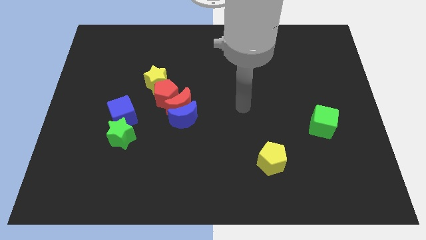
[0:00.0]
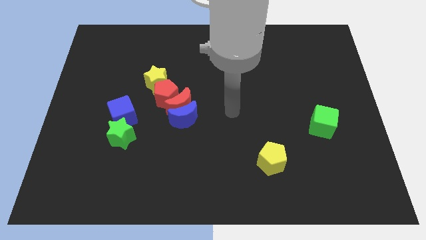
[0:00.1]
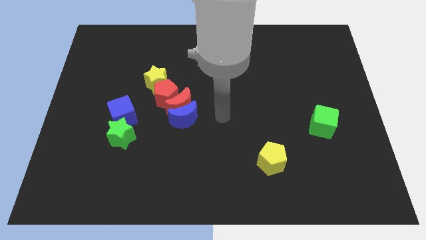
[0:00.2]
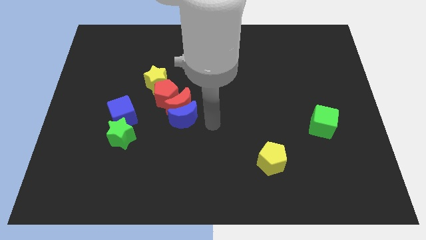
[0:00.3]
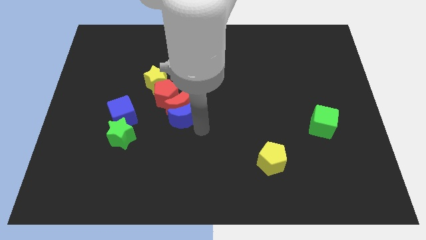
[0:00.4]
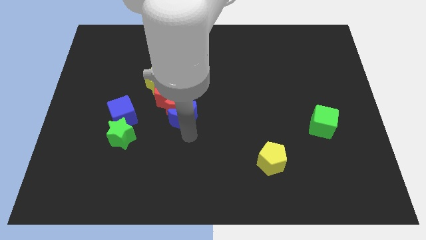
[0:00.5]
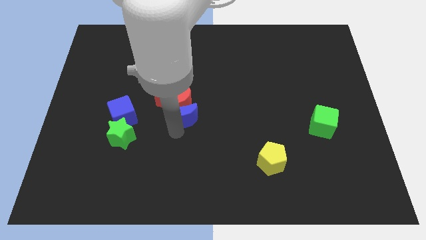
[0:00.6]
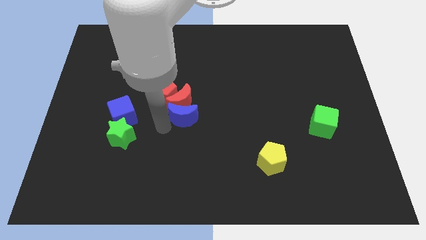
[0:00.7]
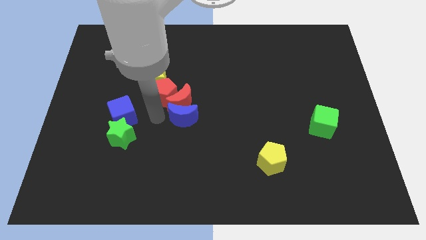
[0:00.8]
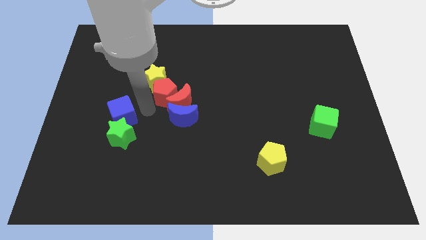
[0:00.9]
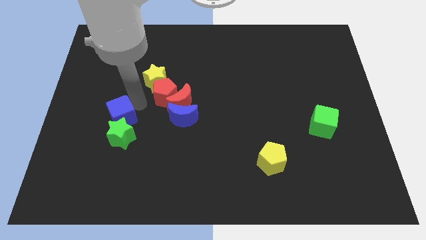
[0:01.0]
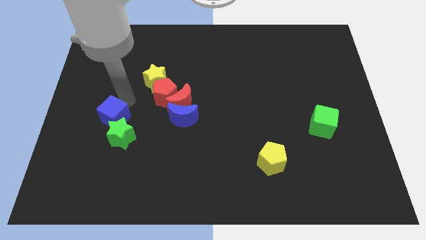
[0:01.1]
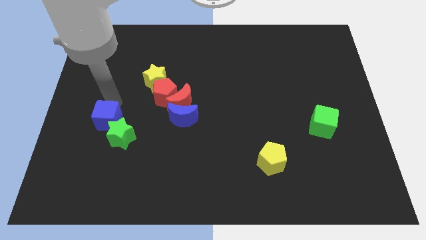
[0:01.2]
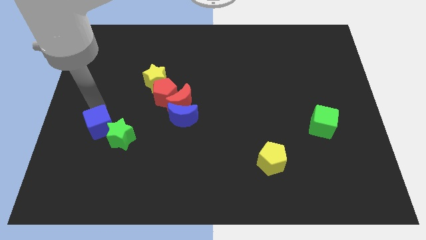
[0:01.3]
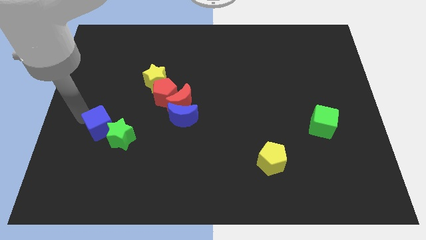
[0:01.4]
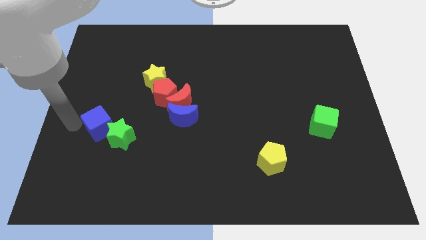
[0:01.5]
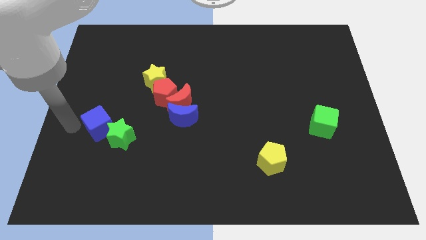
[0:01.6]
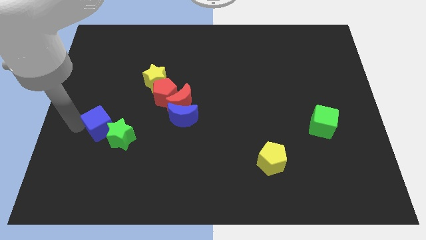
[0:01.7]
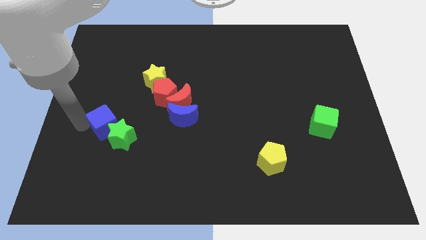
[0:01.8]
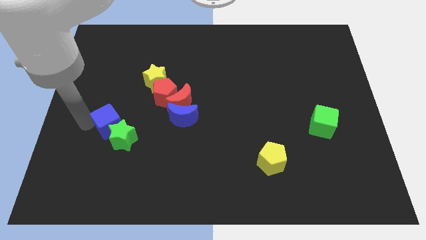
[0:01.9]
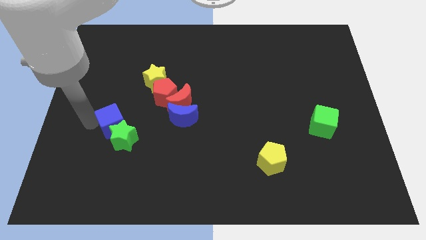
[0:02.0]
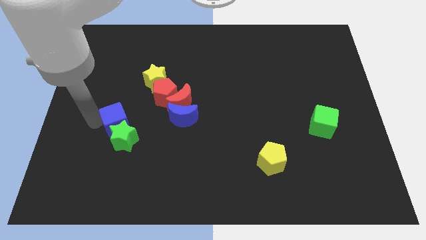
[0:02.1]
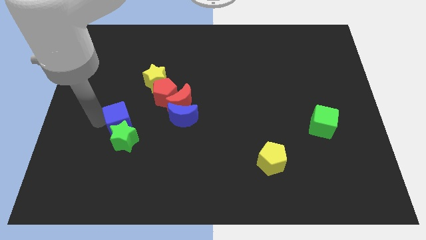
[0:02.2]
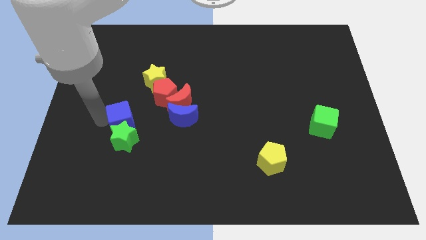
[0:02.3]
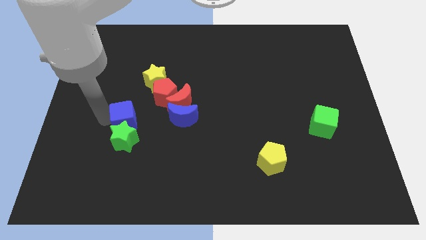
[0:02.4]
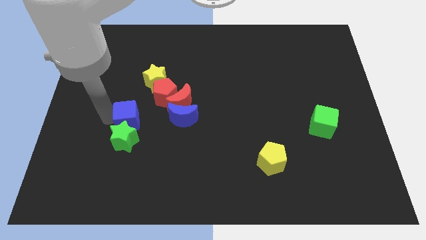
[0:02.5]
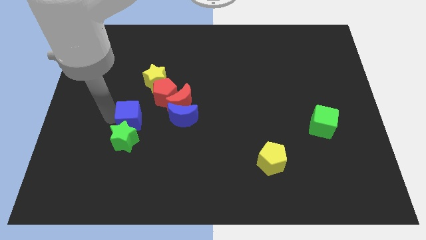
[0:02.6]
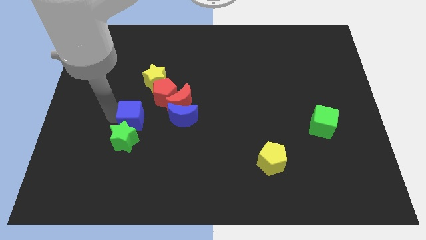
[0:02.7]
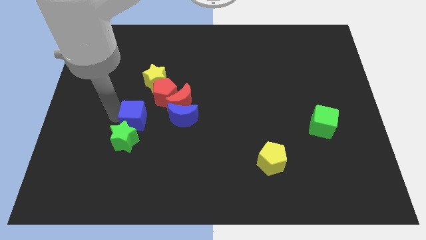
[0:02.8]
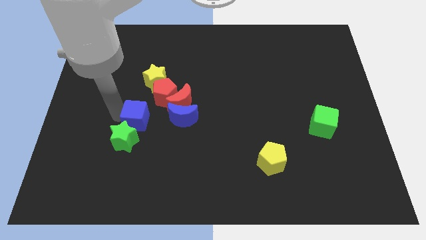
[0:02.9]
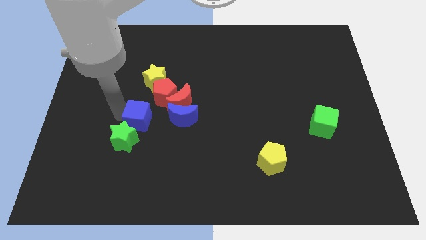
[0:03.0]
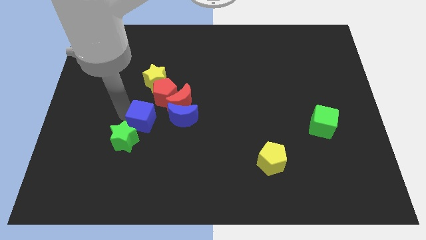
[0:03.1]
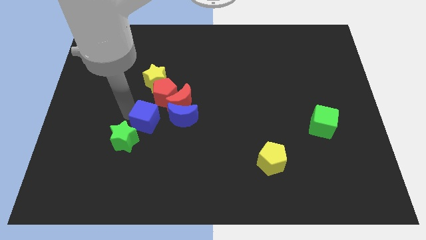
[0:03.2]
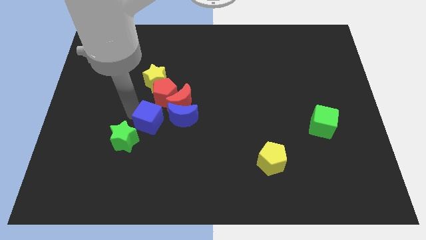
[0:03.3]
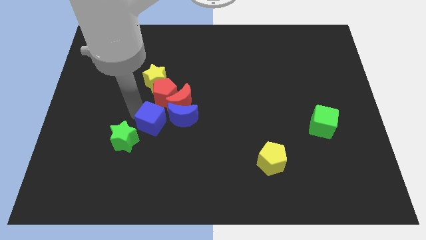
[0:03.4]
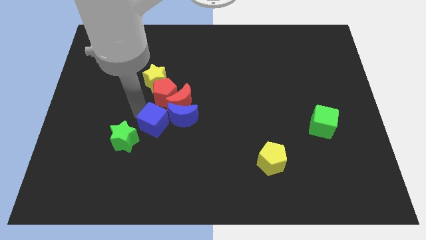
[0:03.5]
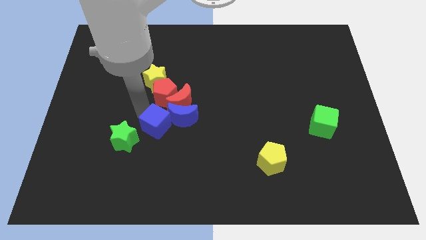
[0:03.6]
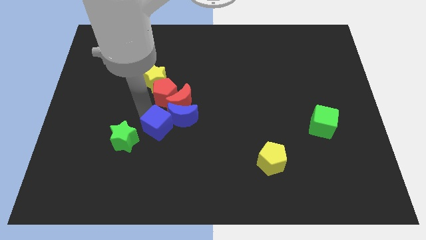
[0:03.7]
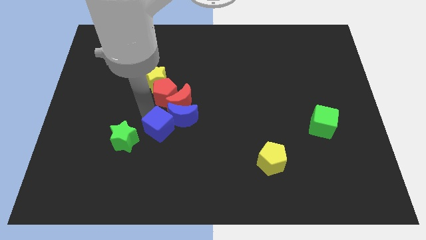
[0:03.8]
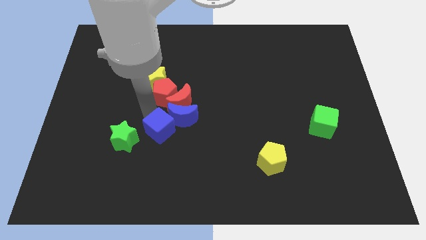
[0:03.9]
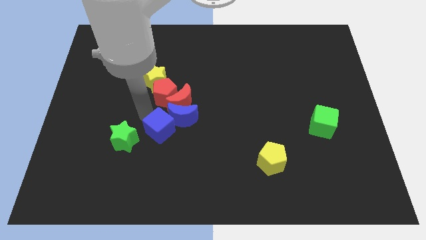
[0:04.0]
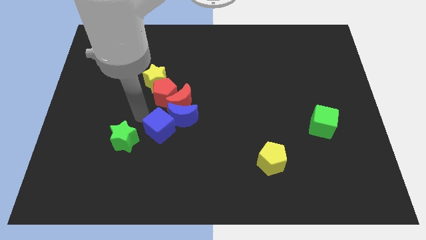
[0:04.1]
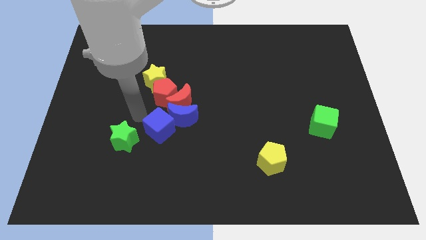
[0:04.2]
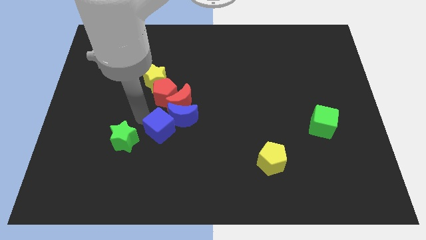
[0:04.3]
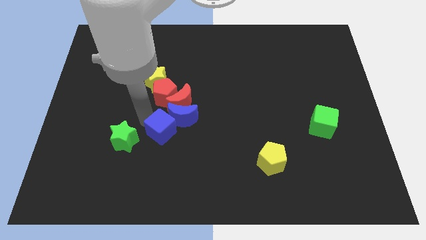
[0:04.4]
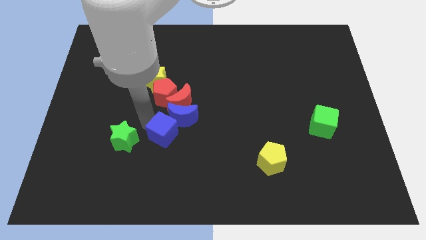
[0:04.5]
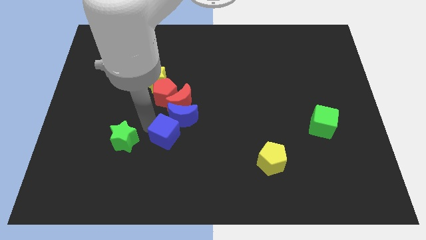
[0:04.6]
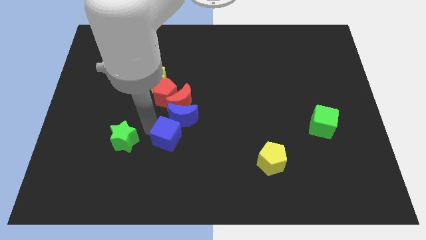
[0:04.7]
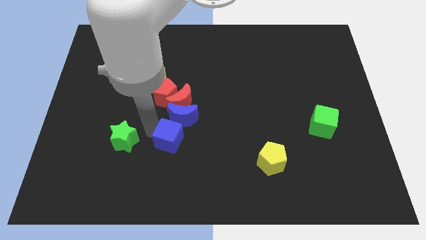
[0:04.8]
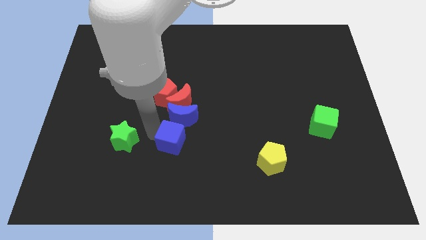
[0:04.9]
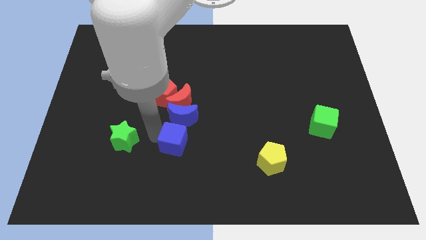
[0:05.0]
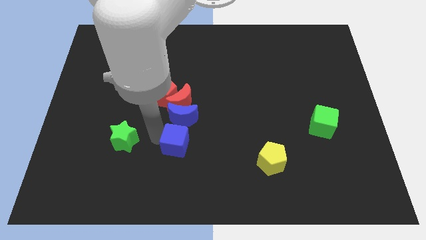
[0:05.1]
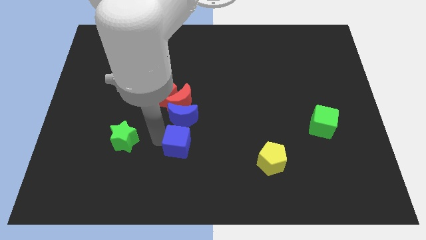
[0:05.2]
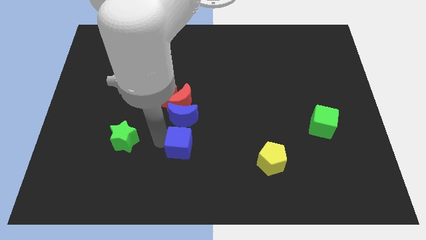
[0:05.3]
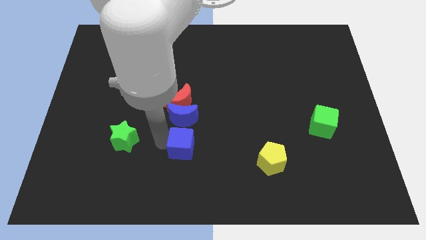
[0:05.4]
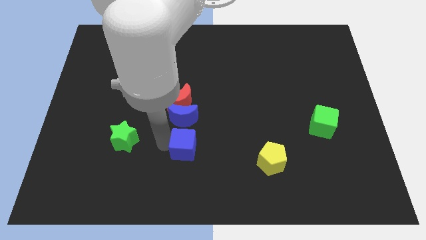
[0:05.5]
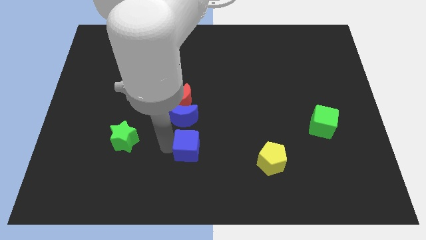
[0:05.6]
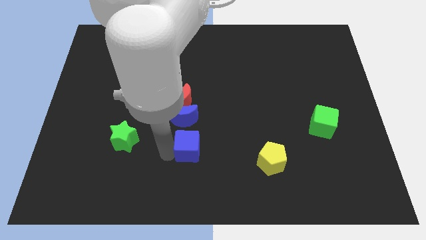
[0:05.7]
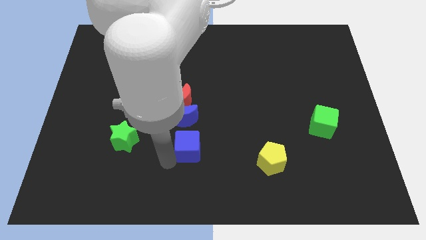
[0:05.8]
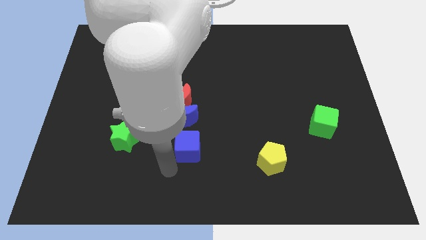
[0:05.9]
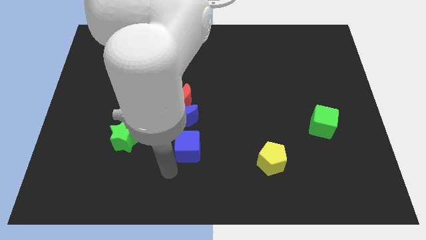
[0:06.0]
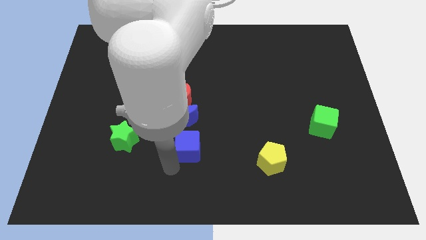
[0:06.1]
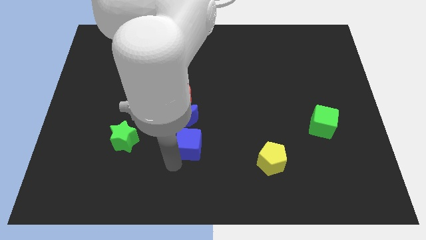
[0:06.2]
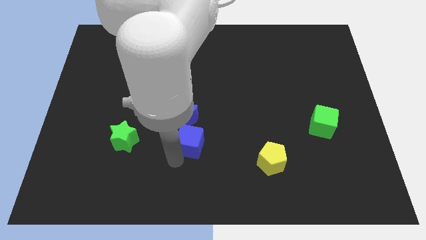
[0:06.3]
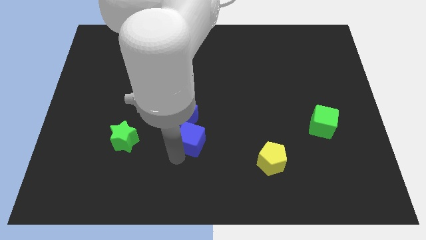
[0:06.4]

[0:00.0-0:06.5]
slide the blue cube to the middle of the board

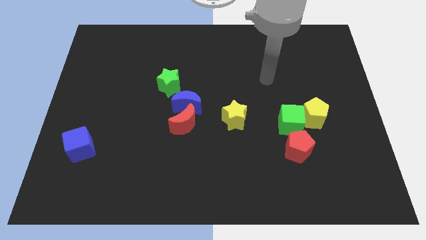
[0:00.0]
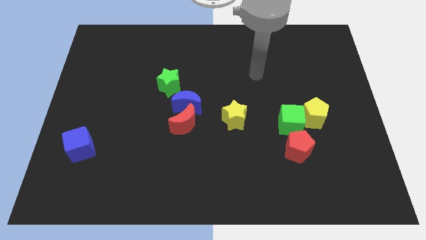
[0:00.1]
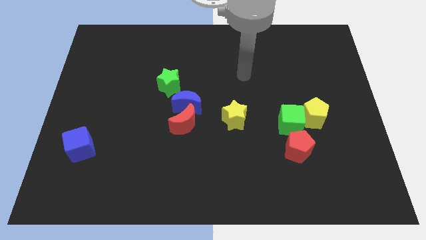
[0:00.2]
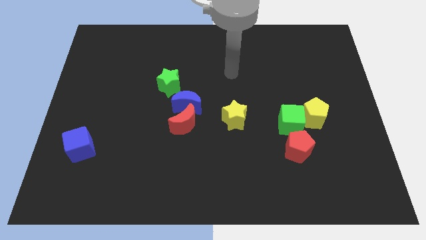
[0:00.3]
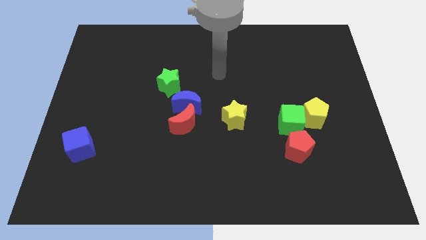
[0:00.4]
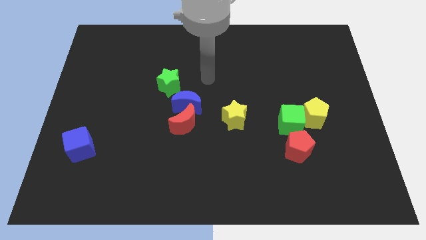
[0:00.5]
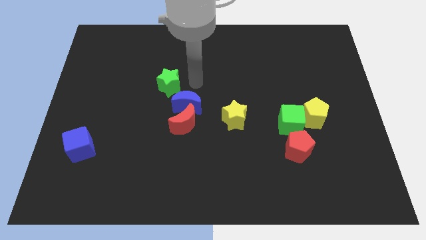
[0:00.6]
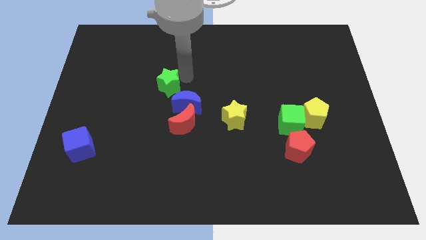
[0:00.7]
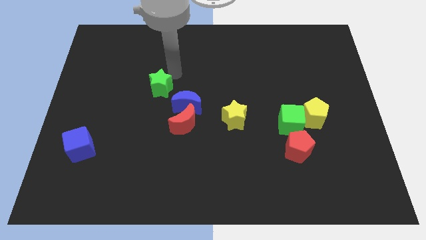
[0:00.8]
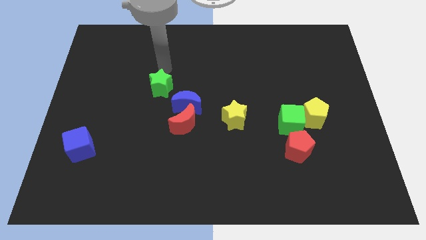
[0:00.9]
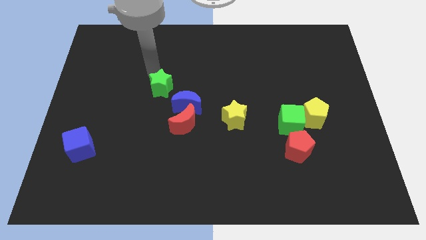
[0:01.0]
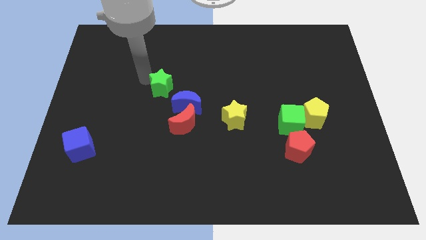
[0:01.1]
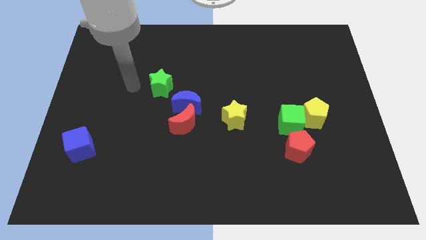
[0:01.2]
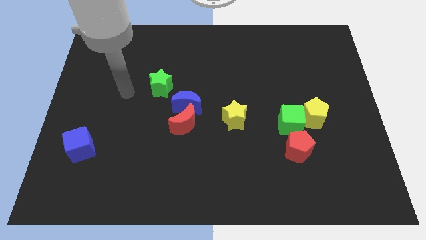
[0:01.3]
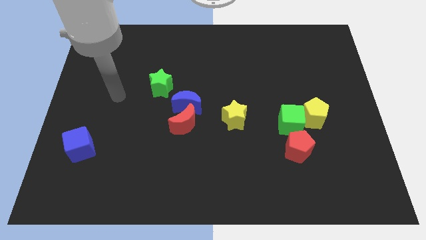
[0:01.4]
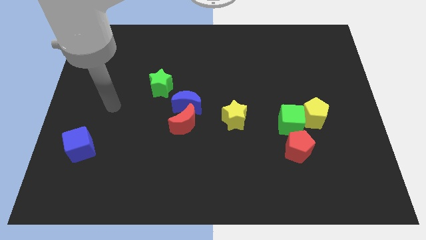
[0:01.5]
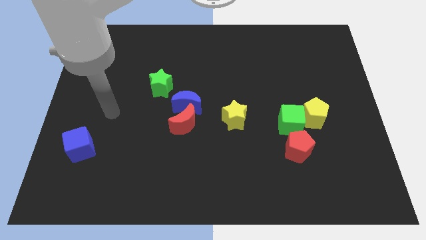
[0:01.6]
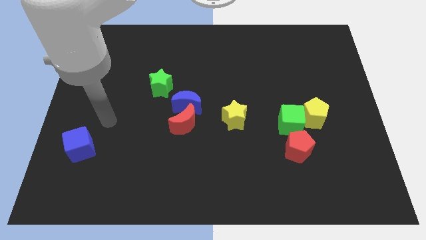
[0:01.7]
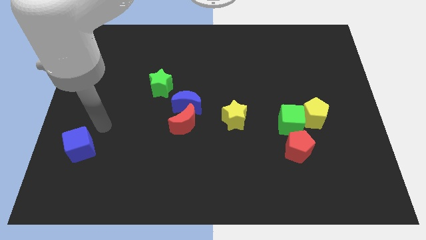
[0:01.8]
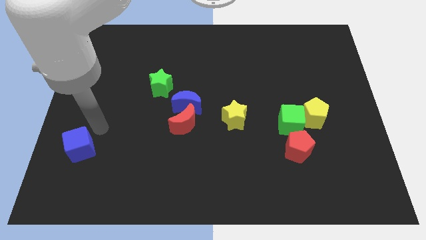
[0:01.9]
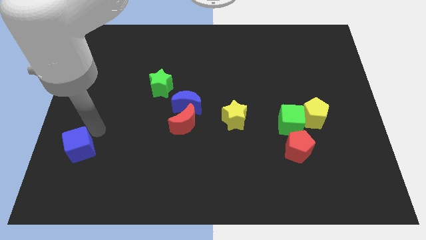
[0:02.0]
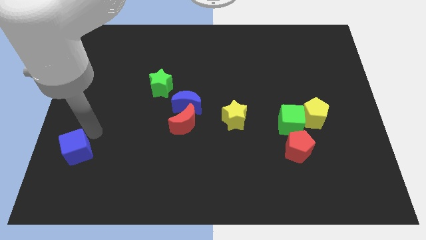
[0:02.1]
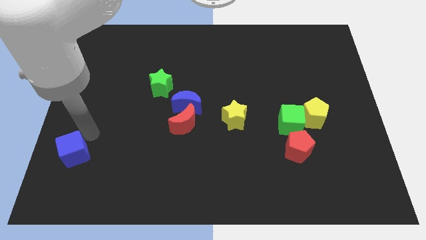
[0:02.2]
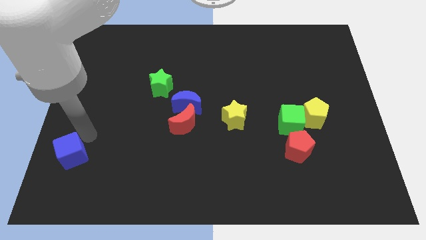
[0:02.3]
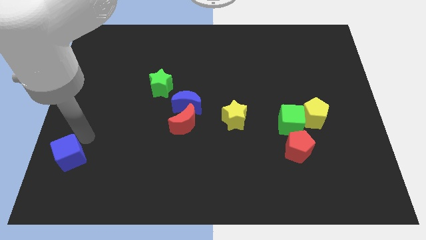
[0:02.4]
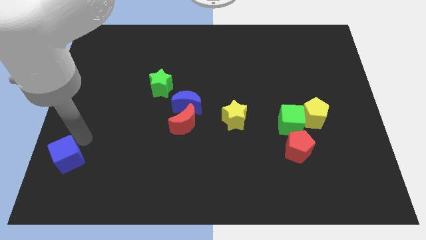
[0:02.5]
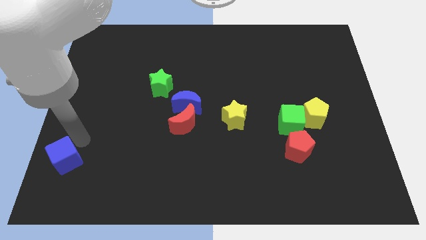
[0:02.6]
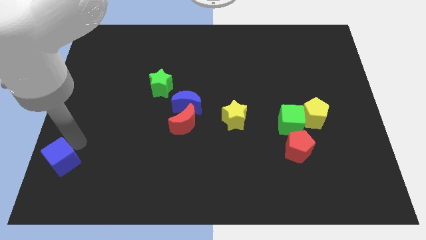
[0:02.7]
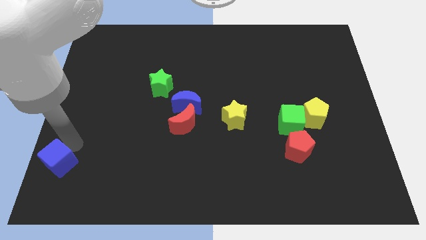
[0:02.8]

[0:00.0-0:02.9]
push the blue cube to the bottom left
